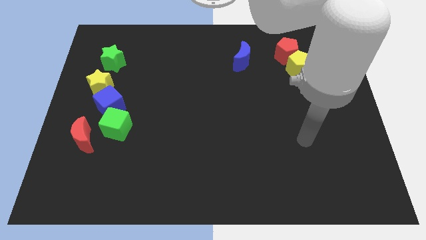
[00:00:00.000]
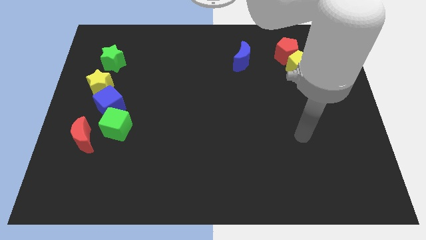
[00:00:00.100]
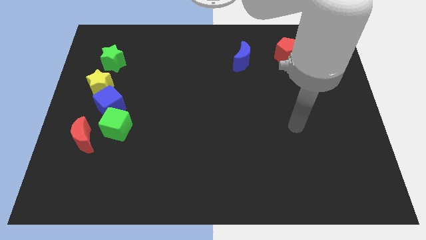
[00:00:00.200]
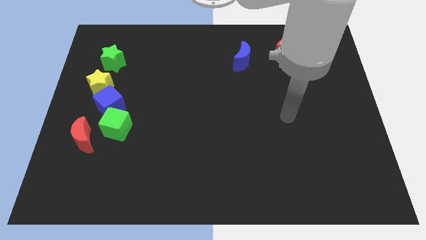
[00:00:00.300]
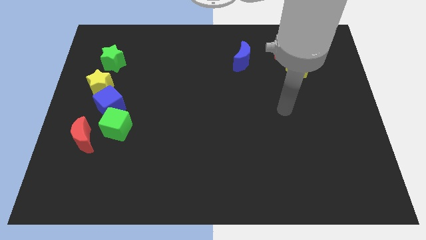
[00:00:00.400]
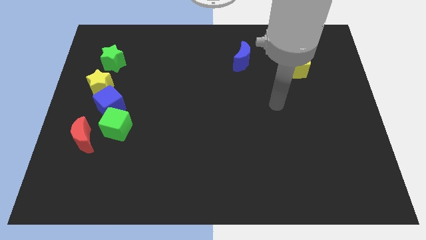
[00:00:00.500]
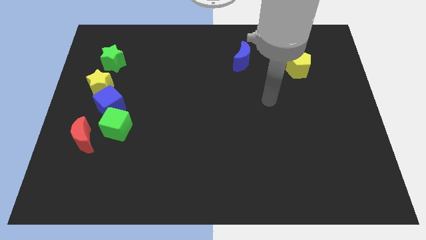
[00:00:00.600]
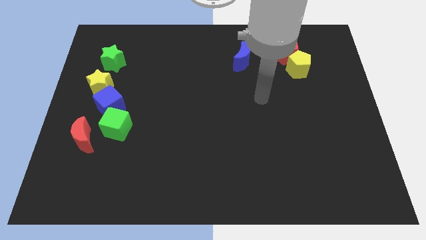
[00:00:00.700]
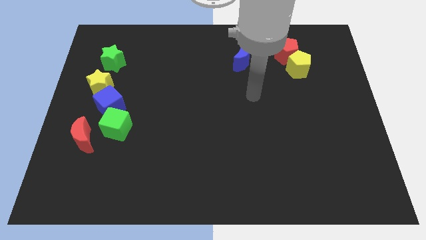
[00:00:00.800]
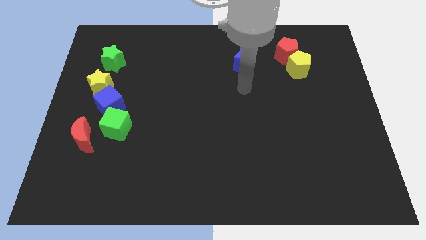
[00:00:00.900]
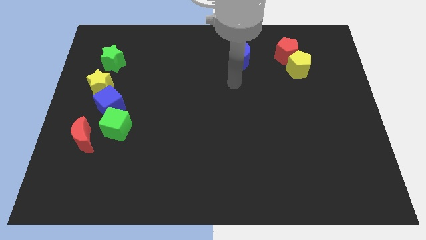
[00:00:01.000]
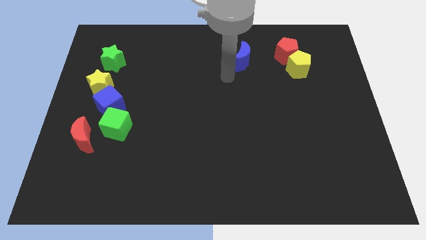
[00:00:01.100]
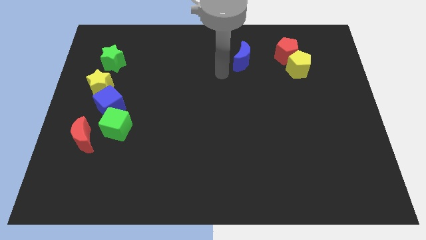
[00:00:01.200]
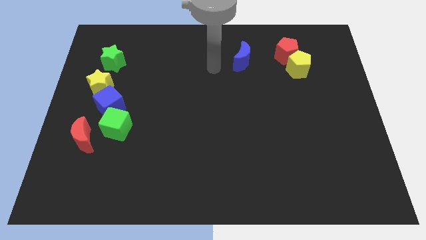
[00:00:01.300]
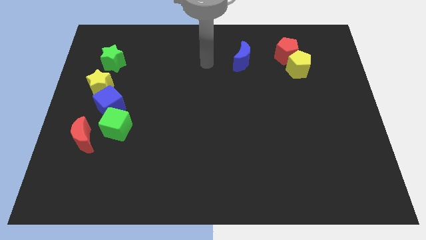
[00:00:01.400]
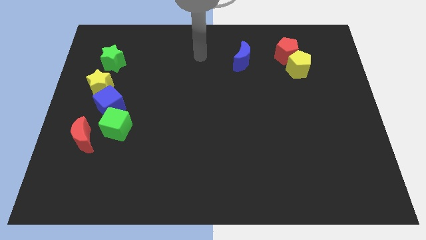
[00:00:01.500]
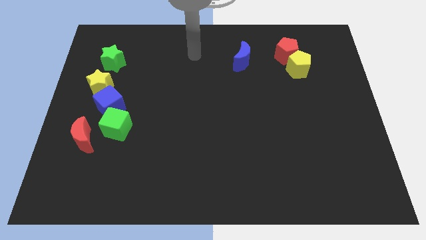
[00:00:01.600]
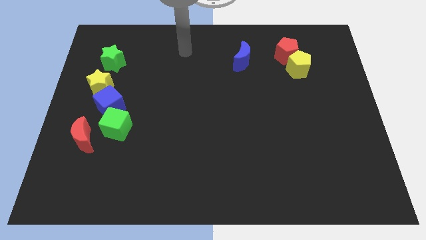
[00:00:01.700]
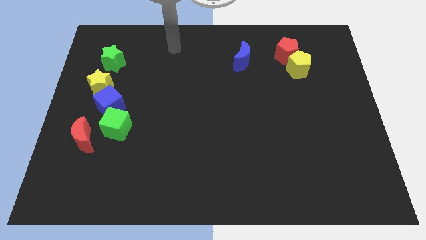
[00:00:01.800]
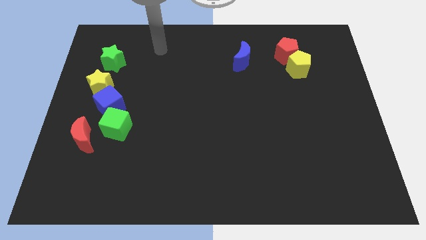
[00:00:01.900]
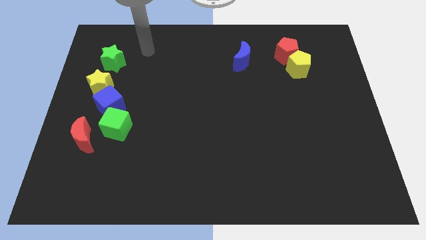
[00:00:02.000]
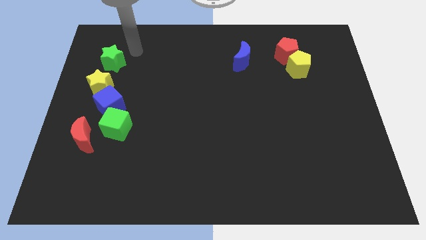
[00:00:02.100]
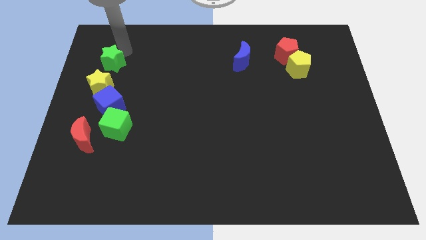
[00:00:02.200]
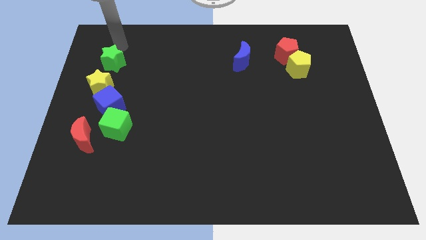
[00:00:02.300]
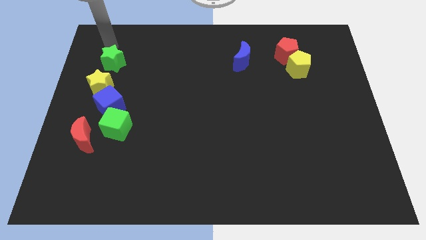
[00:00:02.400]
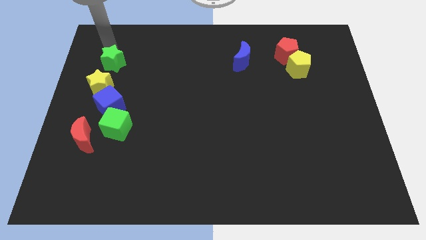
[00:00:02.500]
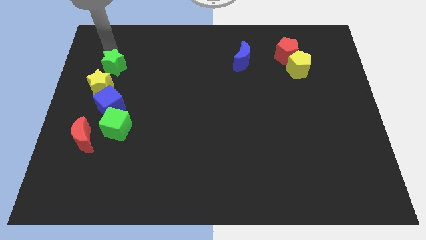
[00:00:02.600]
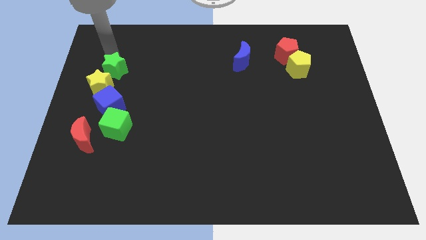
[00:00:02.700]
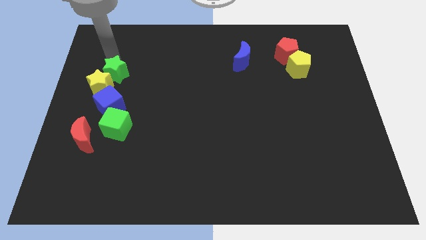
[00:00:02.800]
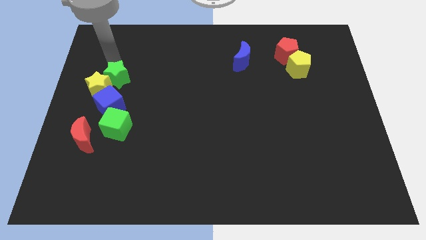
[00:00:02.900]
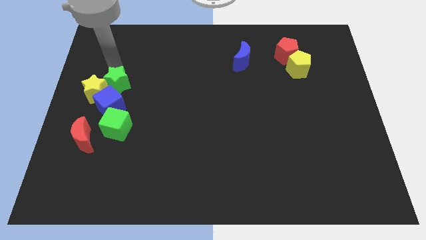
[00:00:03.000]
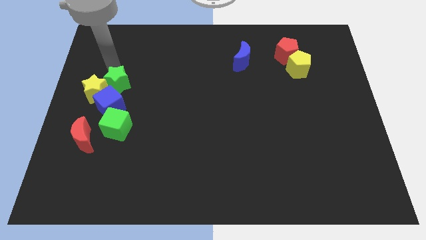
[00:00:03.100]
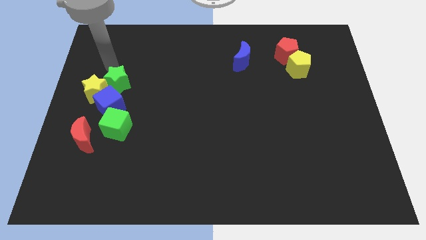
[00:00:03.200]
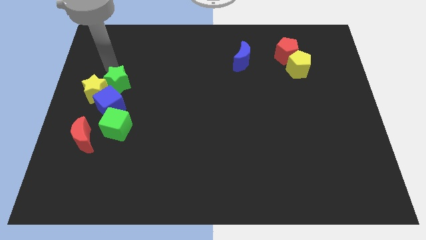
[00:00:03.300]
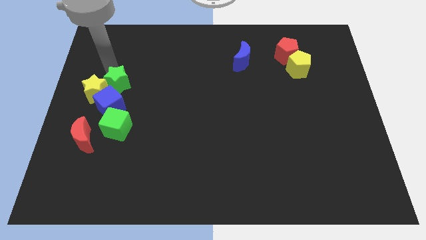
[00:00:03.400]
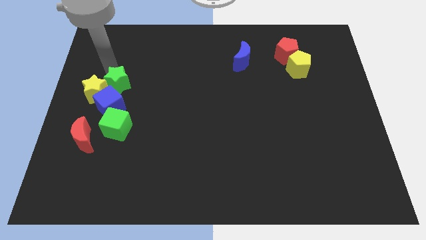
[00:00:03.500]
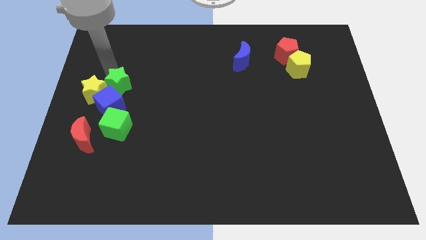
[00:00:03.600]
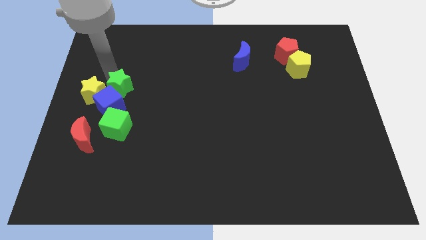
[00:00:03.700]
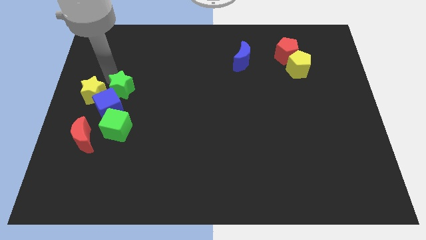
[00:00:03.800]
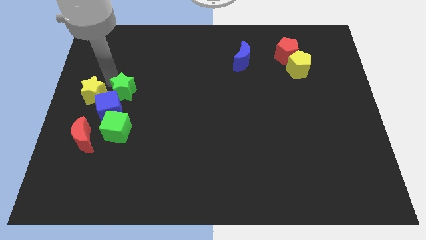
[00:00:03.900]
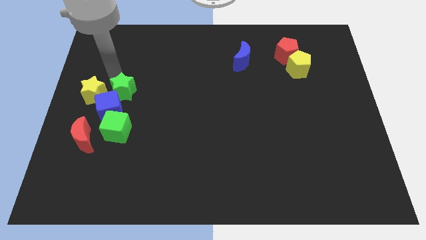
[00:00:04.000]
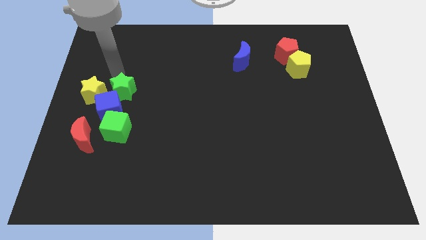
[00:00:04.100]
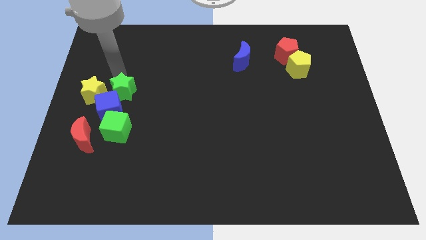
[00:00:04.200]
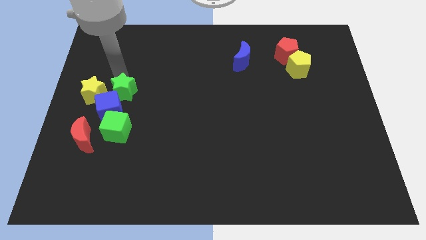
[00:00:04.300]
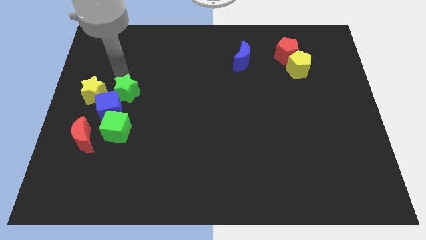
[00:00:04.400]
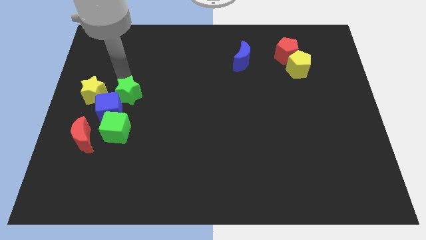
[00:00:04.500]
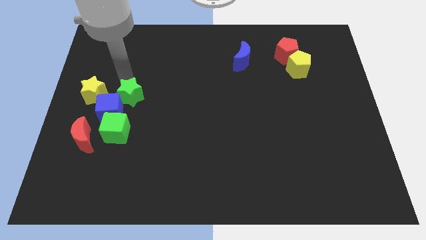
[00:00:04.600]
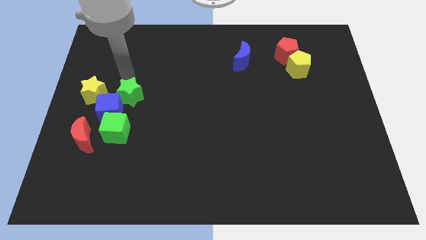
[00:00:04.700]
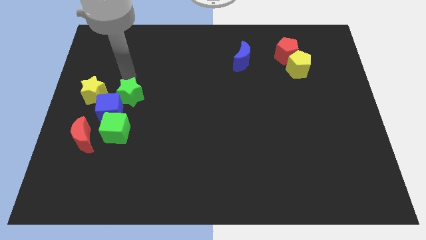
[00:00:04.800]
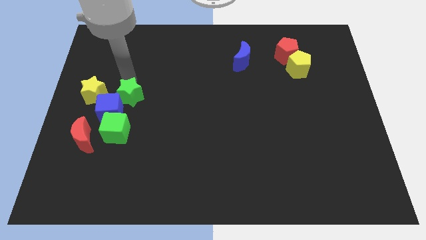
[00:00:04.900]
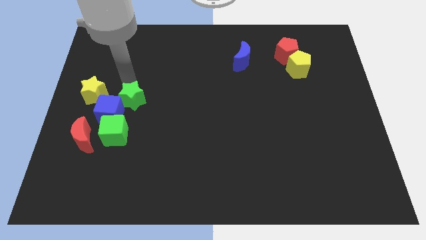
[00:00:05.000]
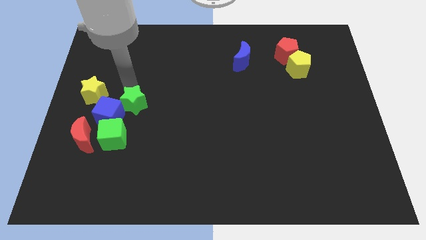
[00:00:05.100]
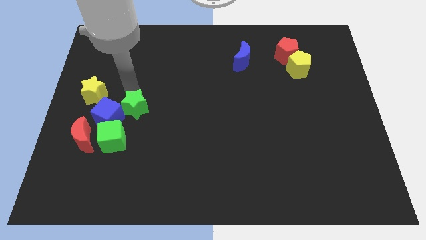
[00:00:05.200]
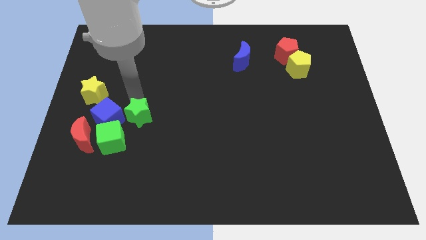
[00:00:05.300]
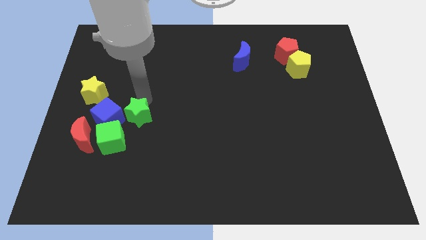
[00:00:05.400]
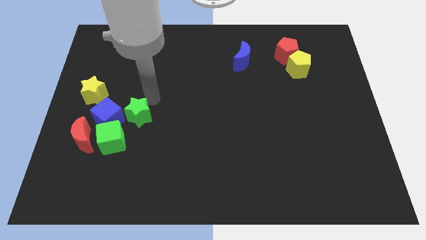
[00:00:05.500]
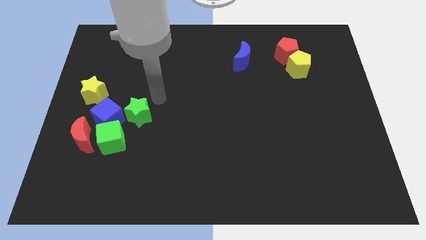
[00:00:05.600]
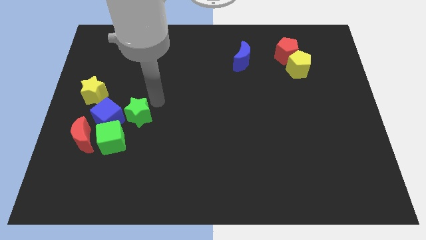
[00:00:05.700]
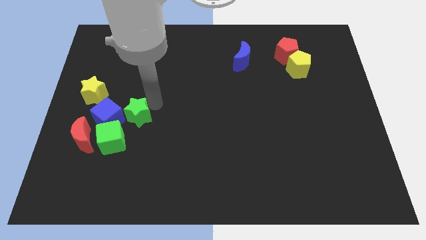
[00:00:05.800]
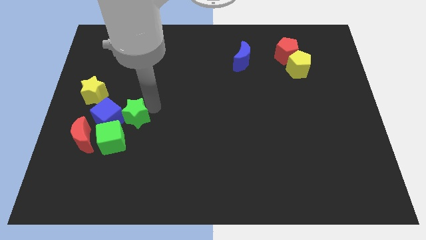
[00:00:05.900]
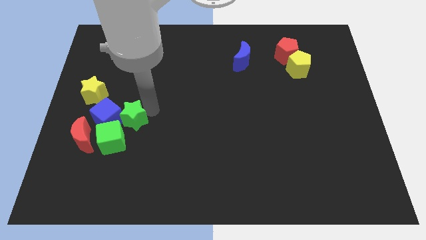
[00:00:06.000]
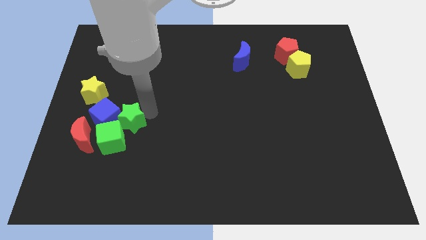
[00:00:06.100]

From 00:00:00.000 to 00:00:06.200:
put the green star to the green cube

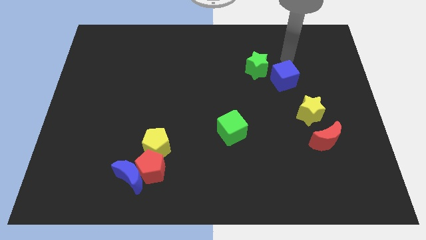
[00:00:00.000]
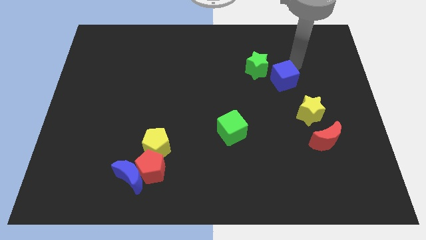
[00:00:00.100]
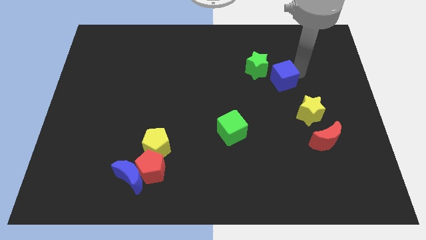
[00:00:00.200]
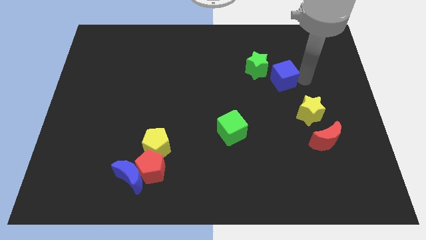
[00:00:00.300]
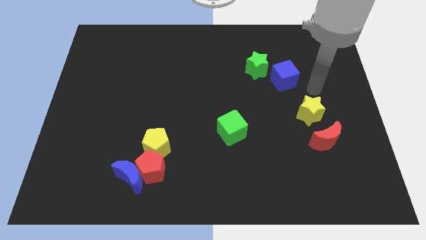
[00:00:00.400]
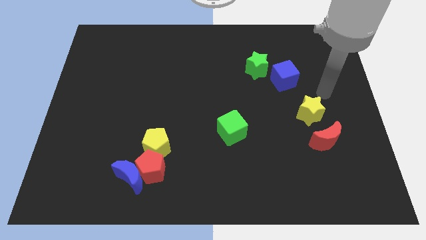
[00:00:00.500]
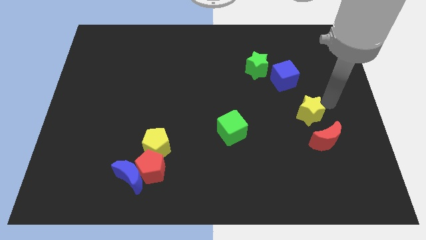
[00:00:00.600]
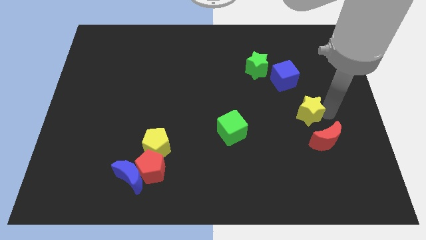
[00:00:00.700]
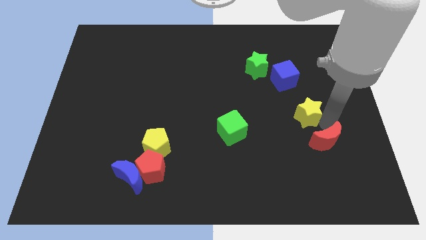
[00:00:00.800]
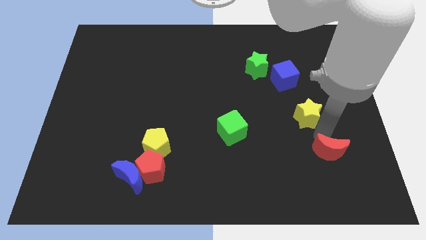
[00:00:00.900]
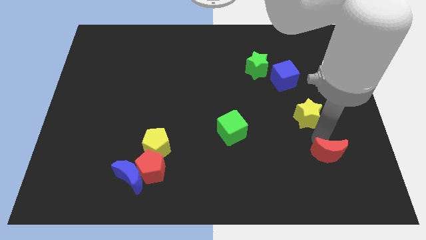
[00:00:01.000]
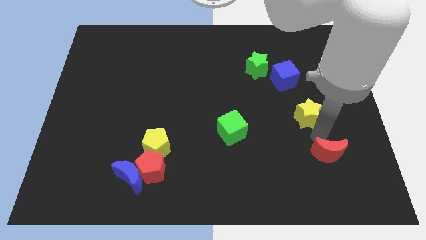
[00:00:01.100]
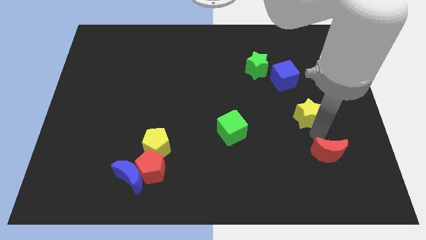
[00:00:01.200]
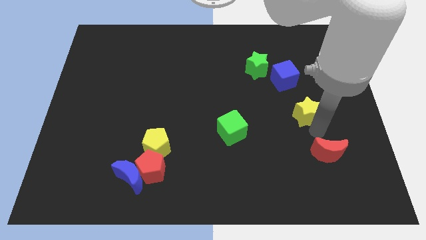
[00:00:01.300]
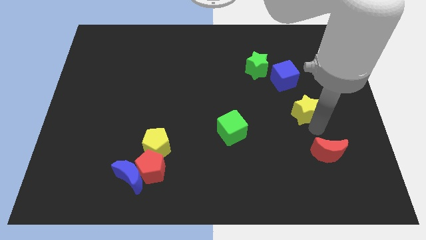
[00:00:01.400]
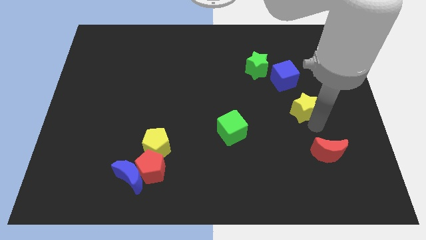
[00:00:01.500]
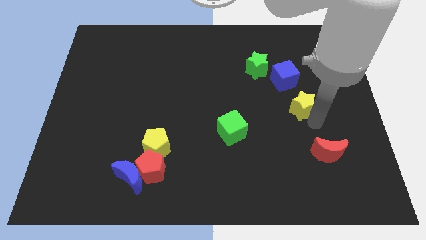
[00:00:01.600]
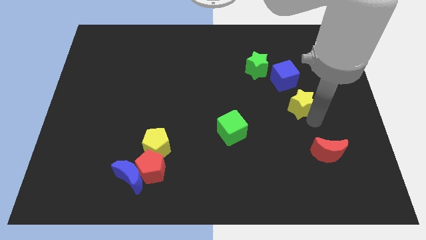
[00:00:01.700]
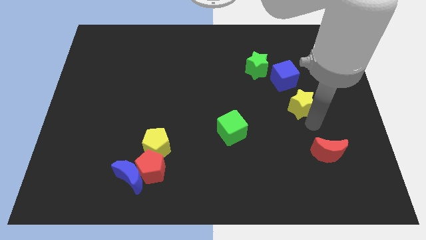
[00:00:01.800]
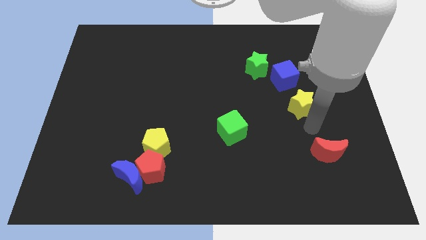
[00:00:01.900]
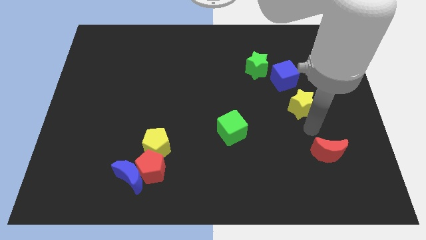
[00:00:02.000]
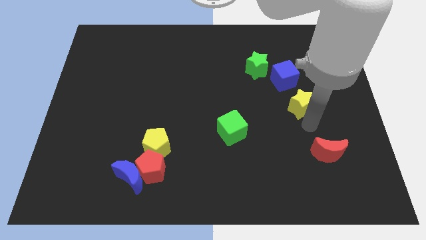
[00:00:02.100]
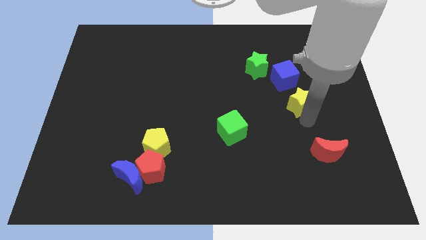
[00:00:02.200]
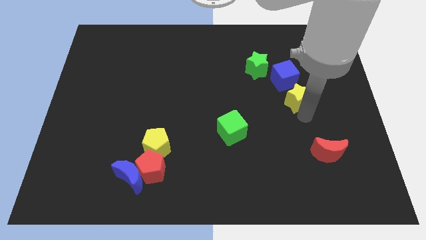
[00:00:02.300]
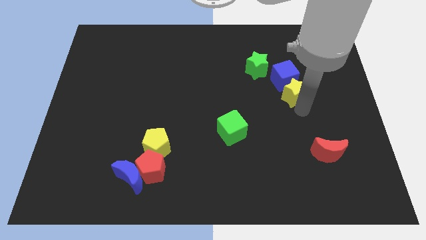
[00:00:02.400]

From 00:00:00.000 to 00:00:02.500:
move the yellow star next to the blue cube
